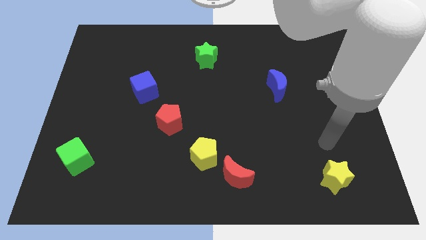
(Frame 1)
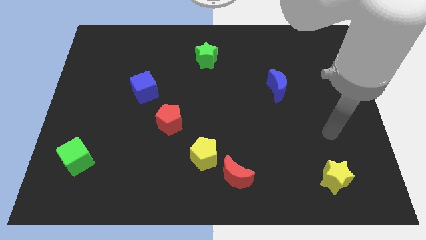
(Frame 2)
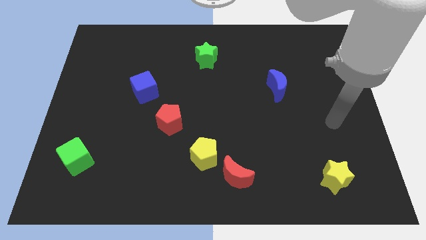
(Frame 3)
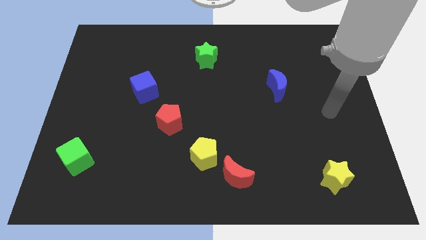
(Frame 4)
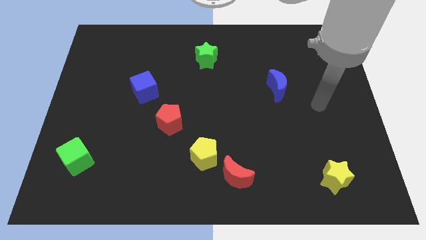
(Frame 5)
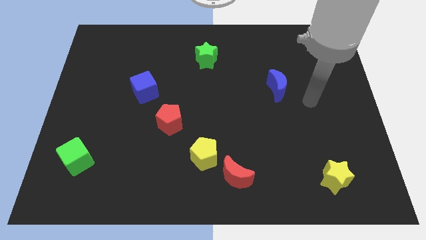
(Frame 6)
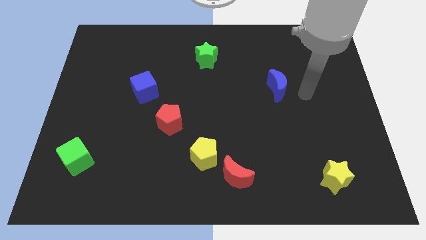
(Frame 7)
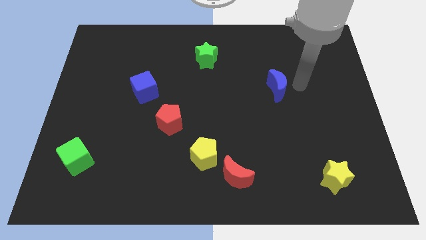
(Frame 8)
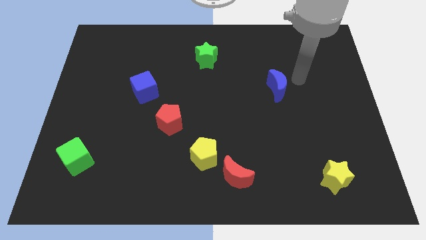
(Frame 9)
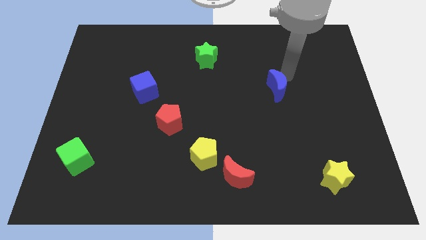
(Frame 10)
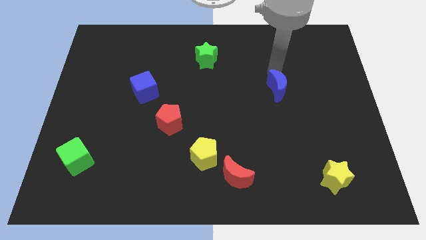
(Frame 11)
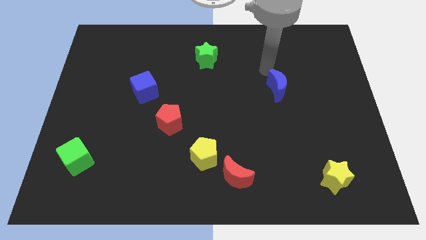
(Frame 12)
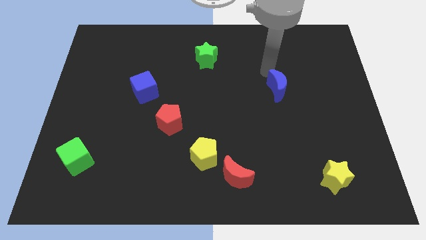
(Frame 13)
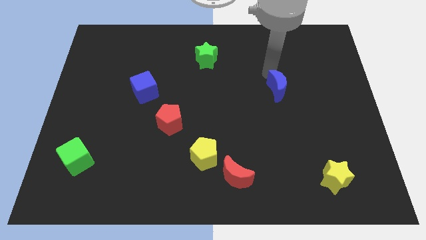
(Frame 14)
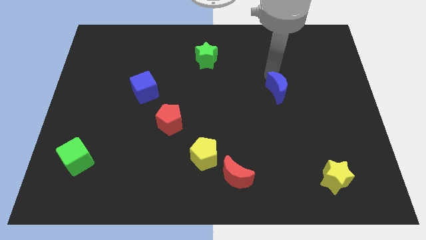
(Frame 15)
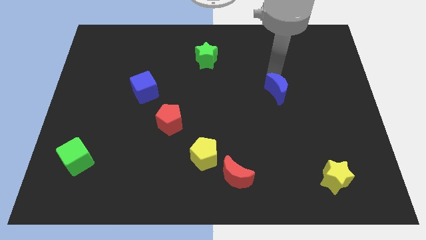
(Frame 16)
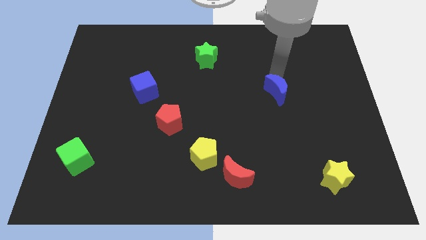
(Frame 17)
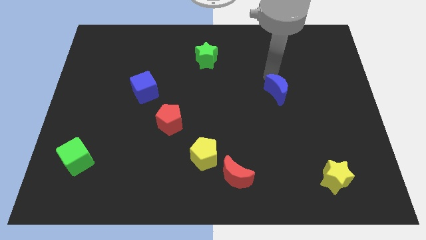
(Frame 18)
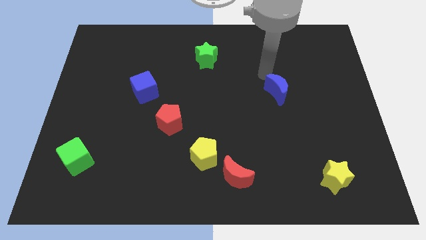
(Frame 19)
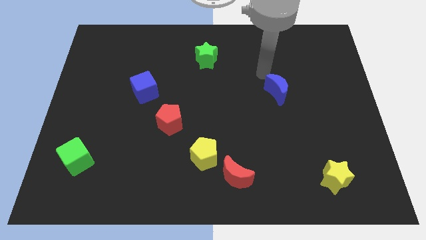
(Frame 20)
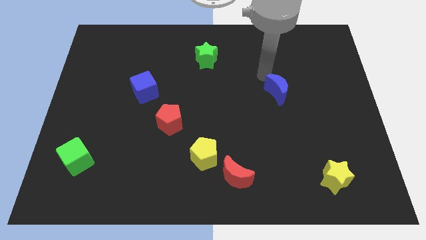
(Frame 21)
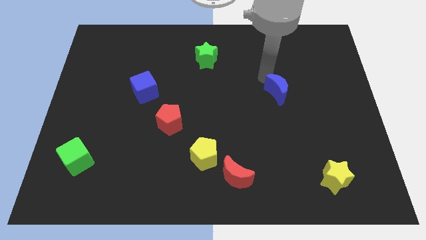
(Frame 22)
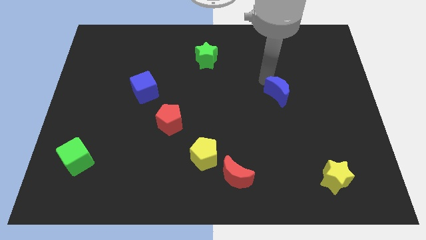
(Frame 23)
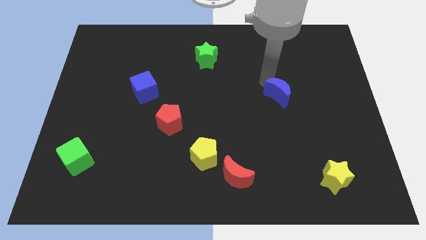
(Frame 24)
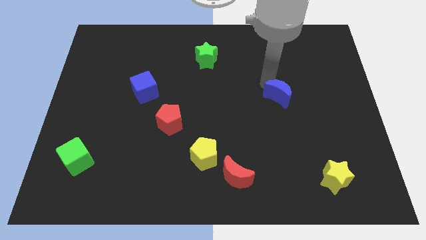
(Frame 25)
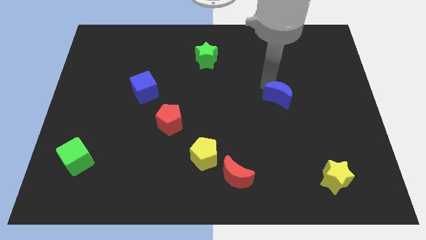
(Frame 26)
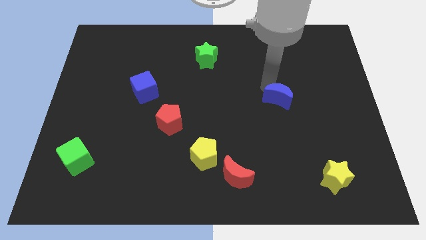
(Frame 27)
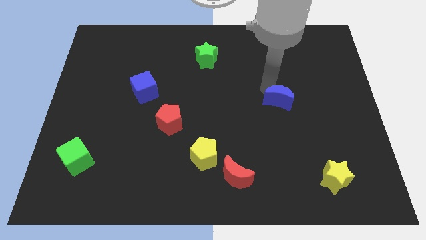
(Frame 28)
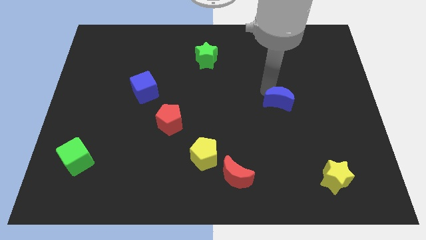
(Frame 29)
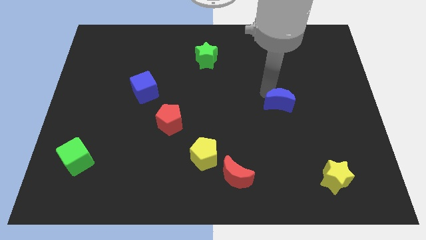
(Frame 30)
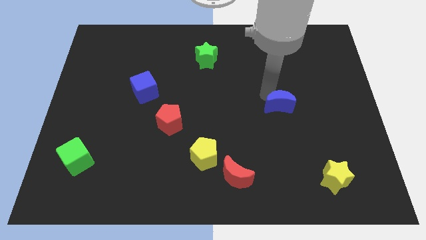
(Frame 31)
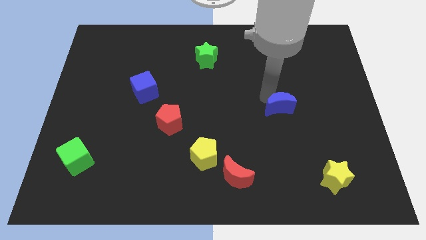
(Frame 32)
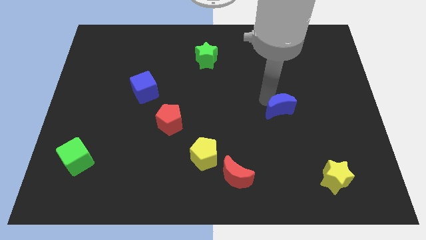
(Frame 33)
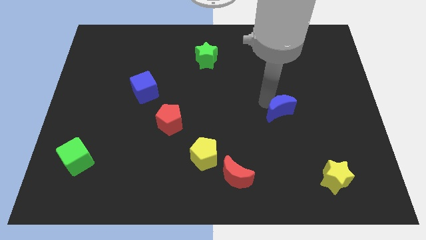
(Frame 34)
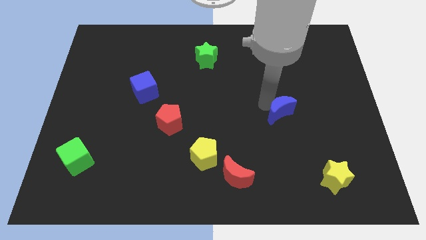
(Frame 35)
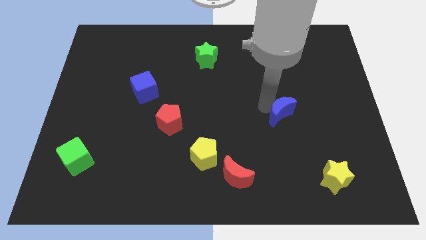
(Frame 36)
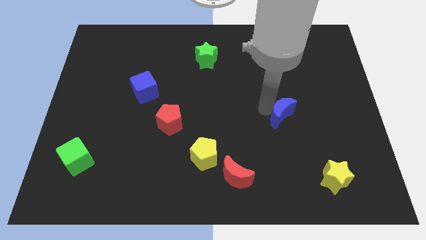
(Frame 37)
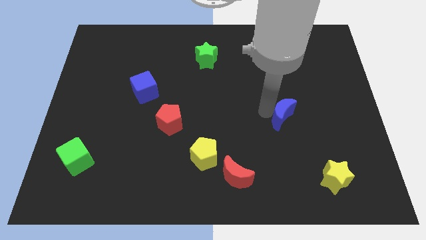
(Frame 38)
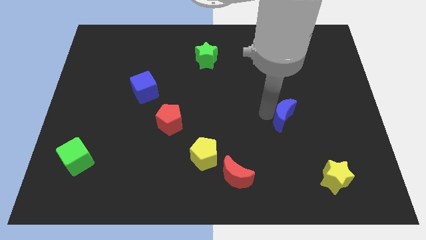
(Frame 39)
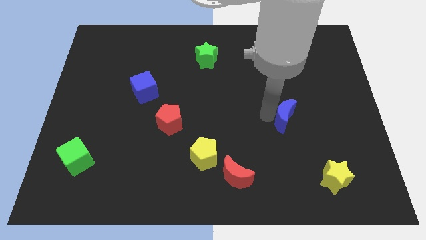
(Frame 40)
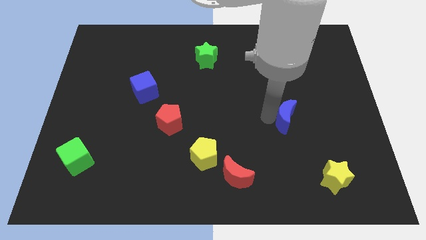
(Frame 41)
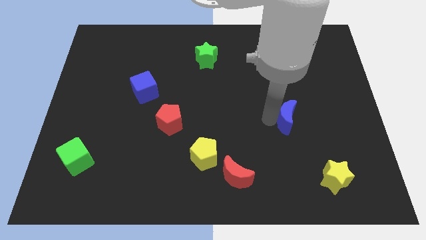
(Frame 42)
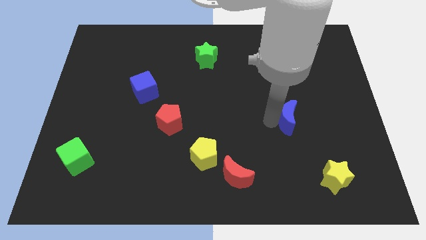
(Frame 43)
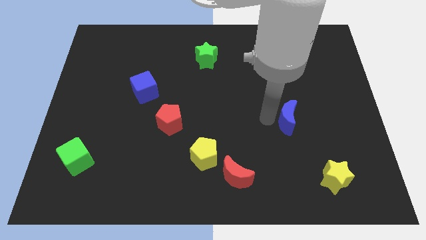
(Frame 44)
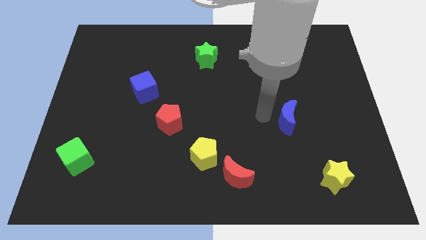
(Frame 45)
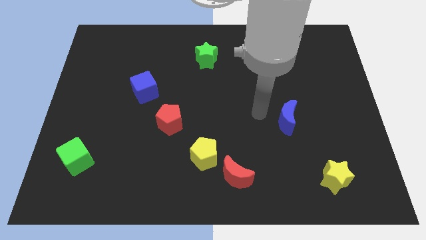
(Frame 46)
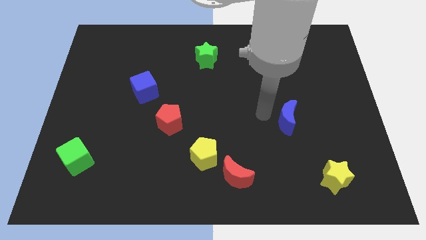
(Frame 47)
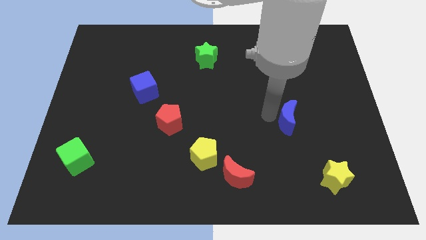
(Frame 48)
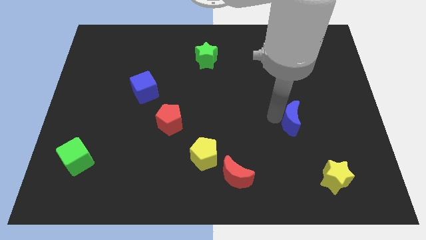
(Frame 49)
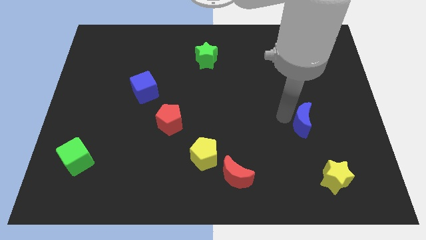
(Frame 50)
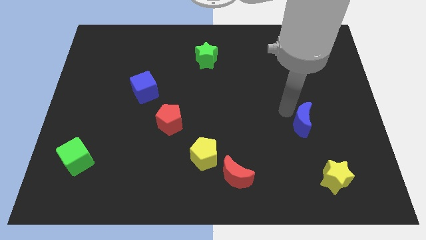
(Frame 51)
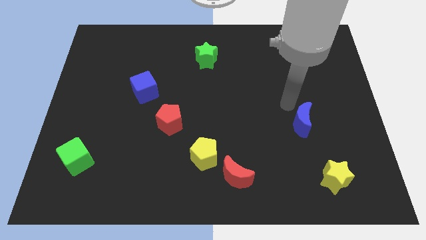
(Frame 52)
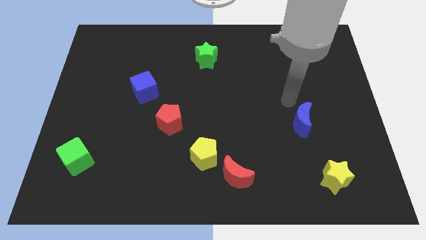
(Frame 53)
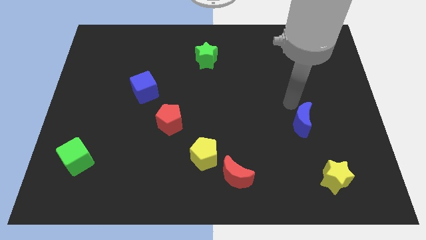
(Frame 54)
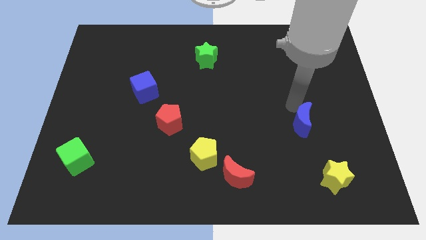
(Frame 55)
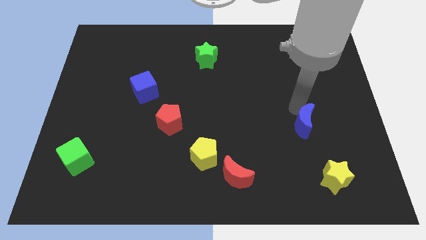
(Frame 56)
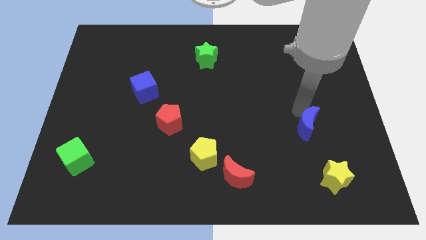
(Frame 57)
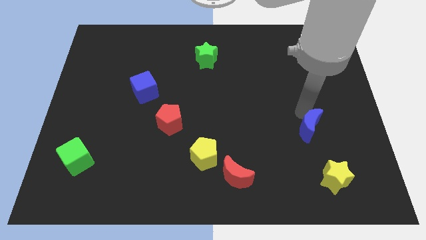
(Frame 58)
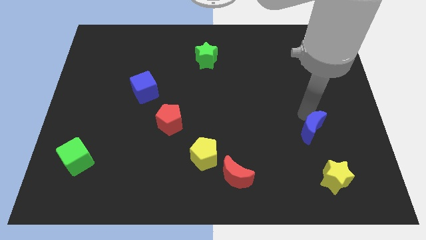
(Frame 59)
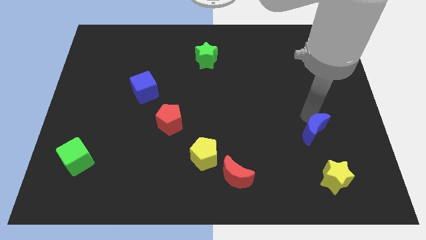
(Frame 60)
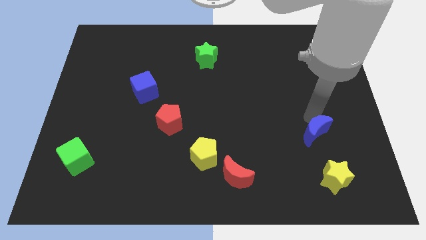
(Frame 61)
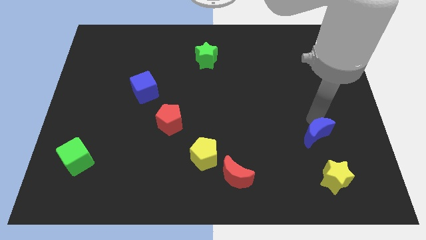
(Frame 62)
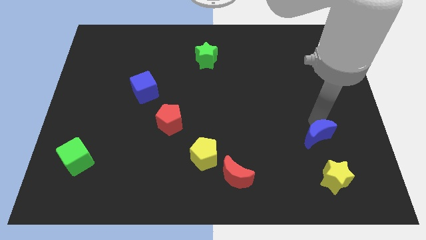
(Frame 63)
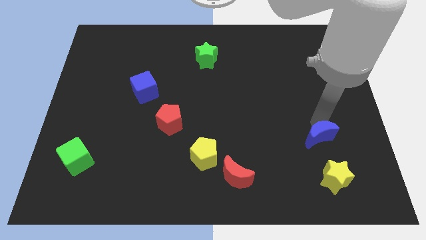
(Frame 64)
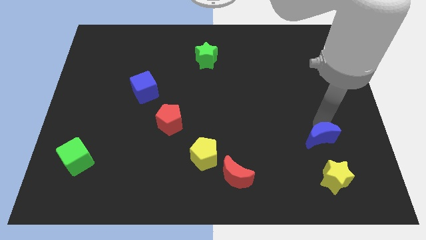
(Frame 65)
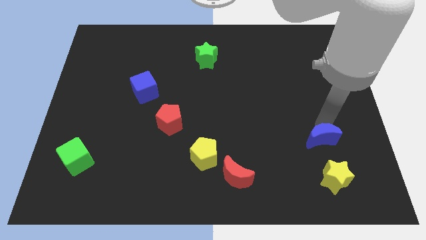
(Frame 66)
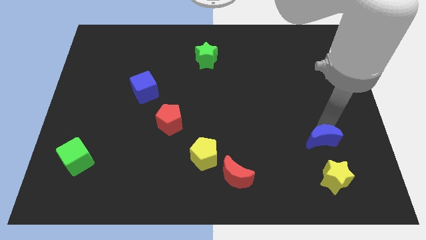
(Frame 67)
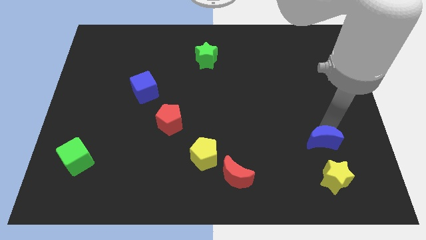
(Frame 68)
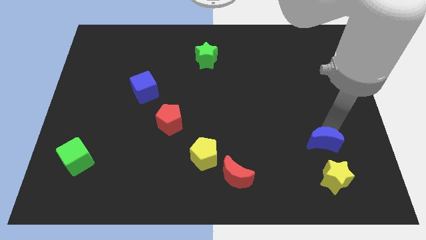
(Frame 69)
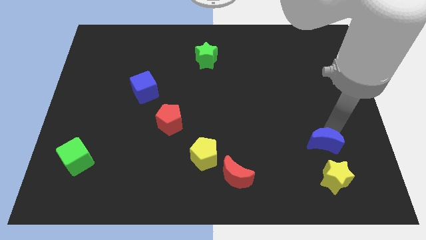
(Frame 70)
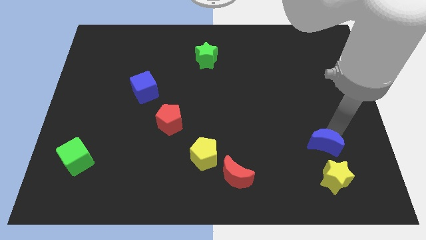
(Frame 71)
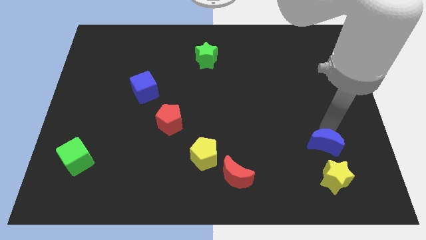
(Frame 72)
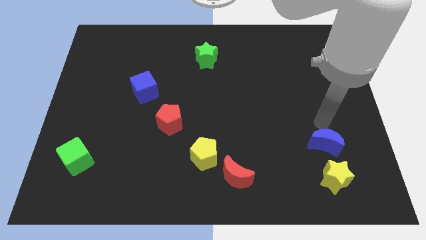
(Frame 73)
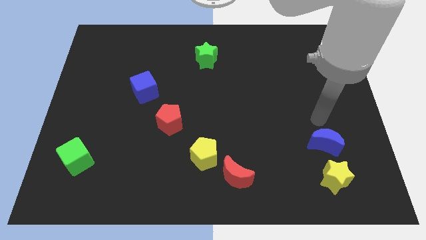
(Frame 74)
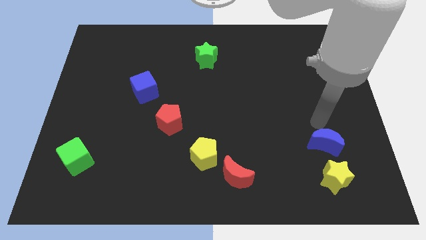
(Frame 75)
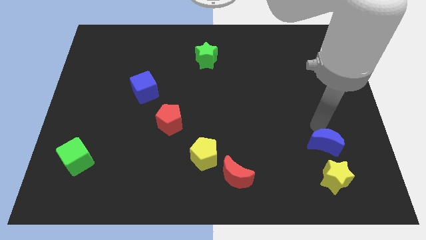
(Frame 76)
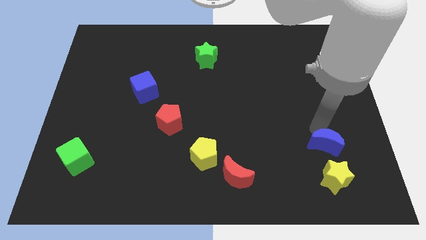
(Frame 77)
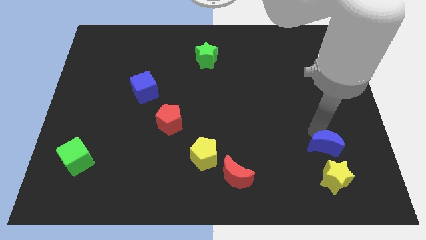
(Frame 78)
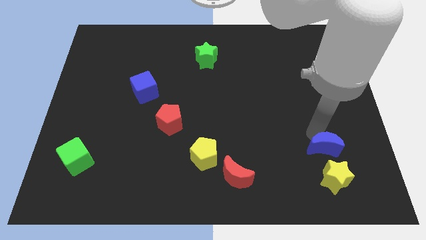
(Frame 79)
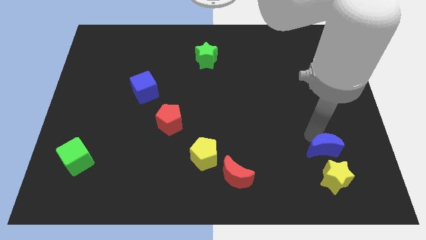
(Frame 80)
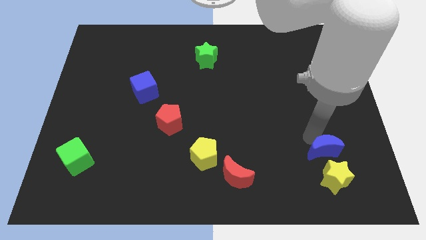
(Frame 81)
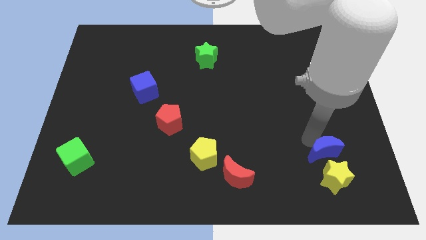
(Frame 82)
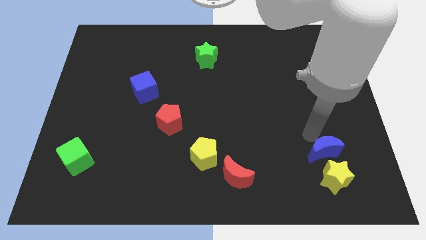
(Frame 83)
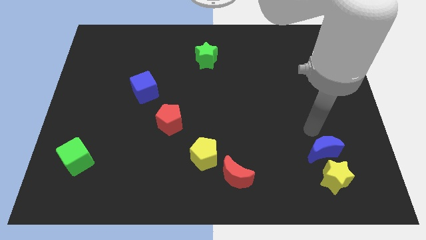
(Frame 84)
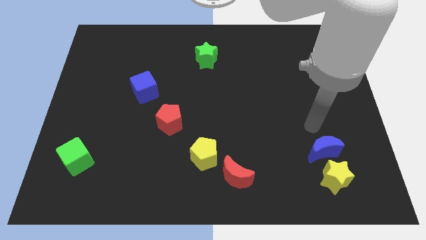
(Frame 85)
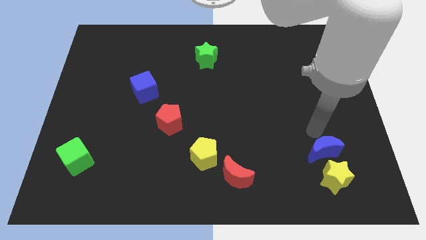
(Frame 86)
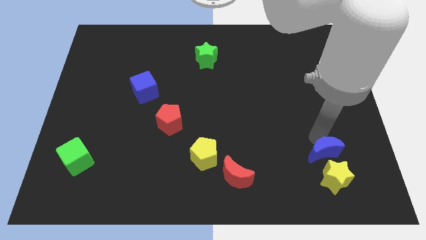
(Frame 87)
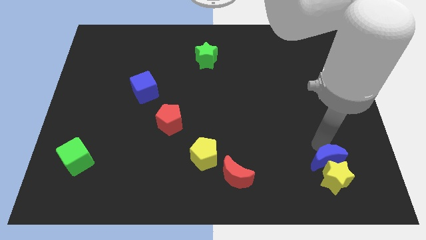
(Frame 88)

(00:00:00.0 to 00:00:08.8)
put the blue moon next to the yellow star
